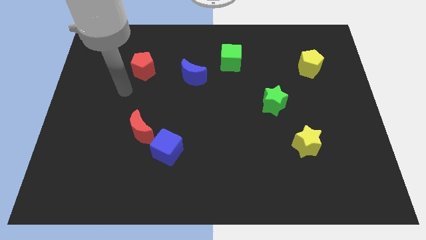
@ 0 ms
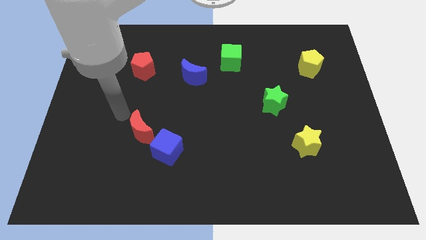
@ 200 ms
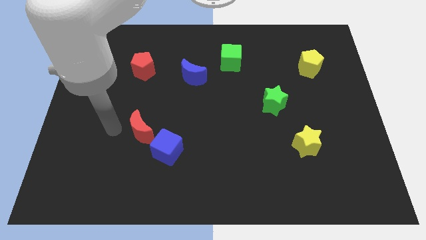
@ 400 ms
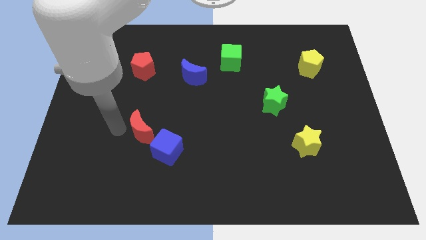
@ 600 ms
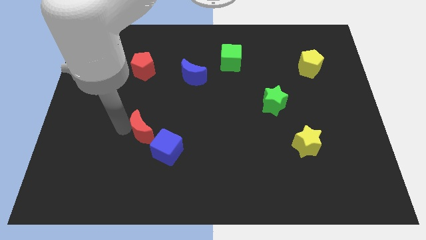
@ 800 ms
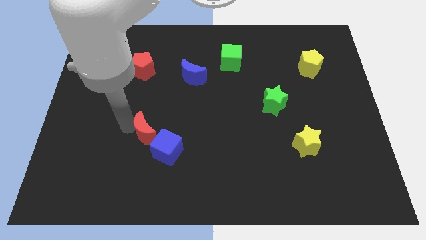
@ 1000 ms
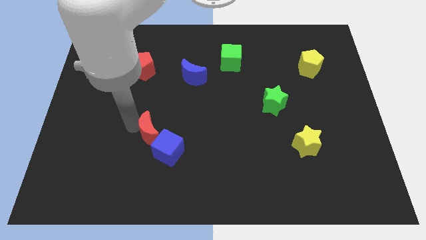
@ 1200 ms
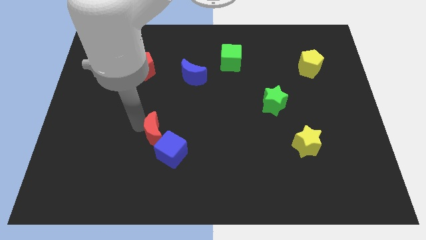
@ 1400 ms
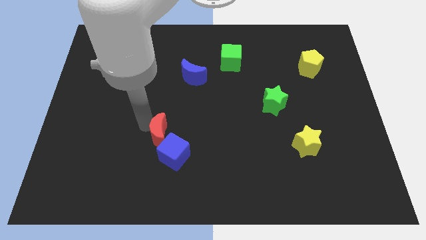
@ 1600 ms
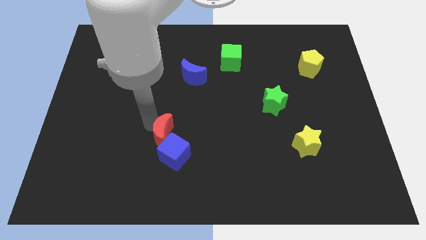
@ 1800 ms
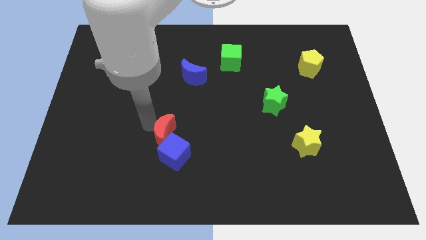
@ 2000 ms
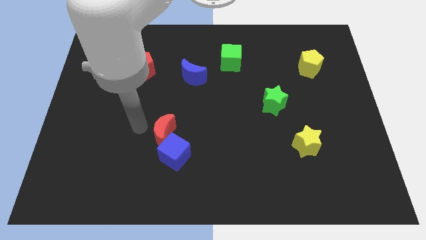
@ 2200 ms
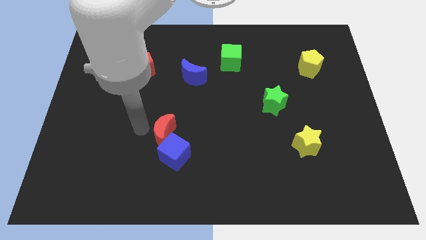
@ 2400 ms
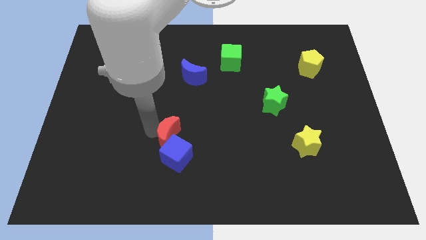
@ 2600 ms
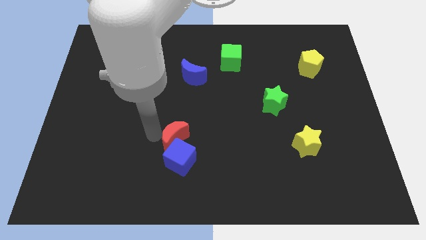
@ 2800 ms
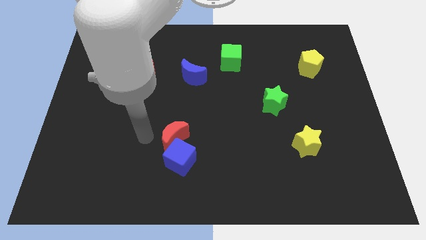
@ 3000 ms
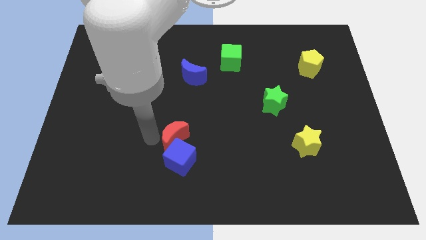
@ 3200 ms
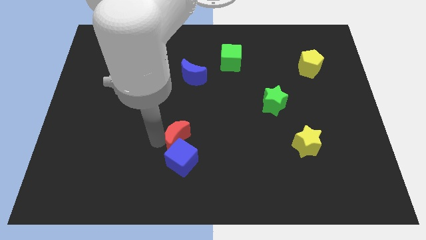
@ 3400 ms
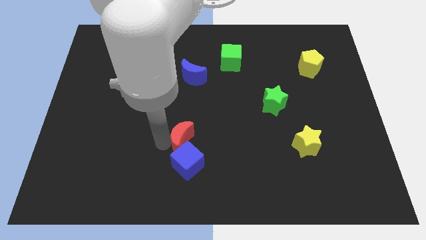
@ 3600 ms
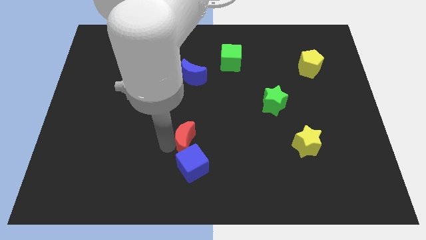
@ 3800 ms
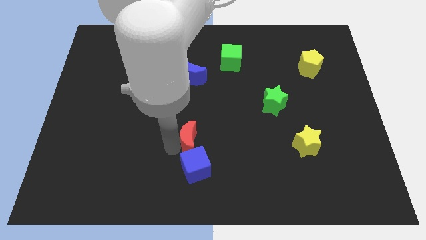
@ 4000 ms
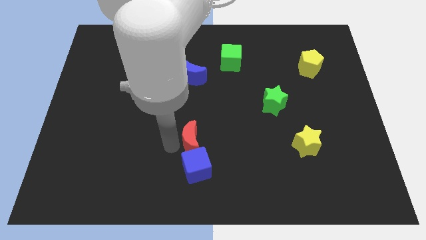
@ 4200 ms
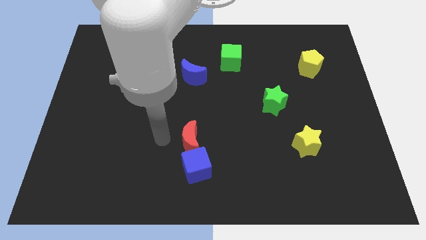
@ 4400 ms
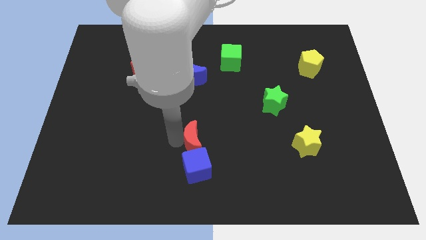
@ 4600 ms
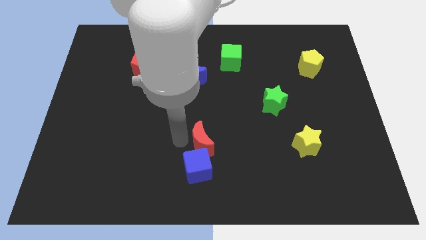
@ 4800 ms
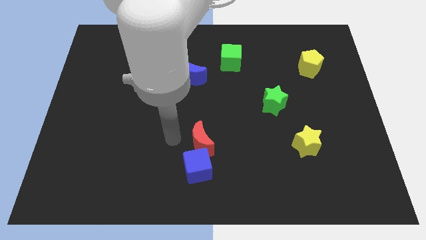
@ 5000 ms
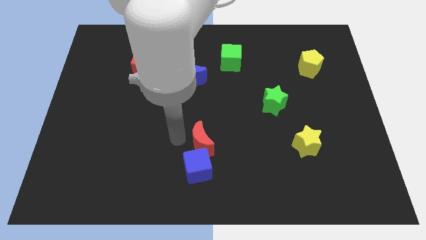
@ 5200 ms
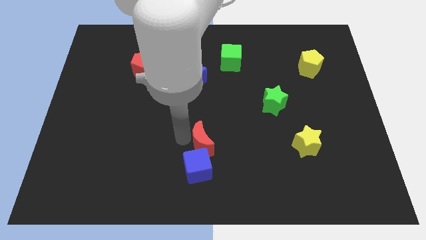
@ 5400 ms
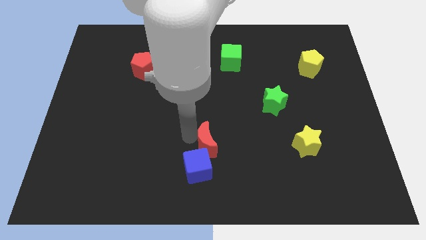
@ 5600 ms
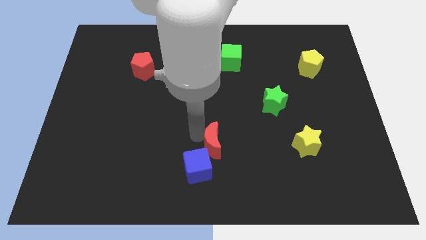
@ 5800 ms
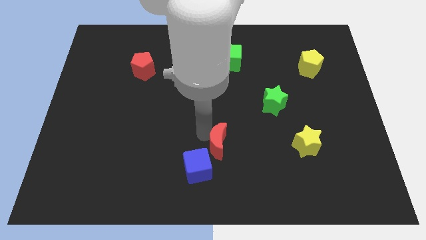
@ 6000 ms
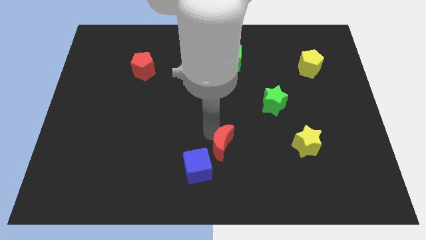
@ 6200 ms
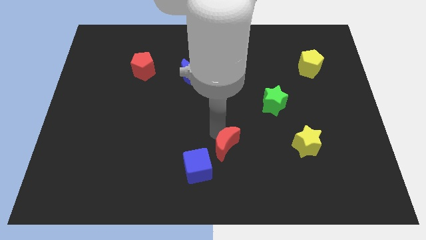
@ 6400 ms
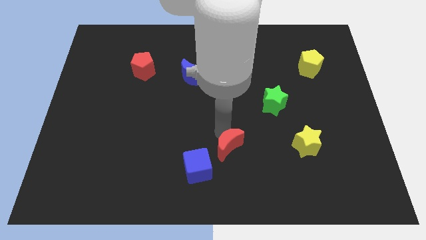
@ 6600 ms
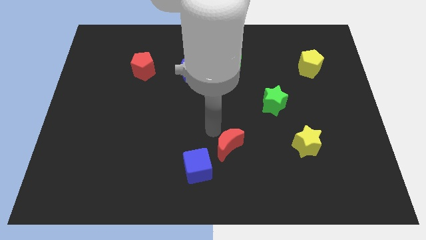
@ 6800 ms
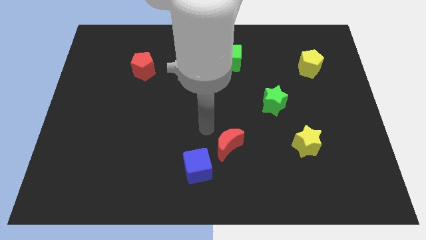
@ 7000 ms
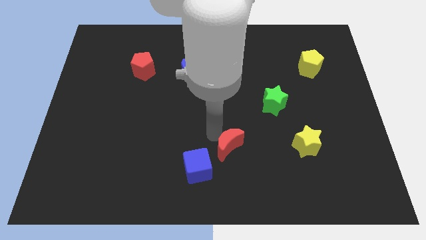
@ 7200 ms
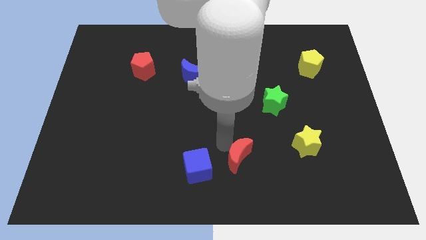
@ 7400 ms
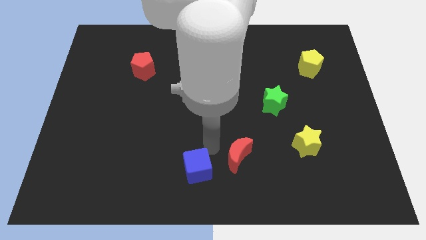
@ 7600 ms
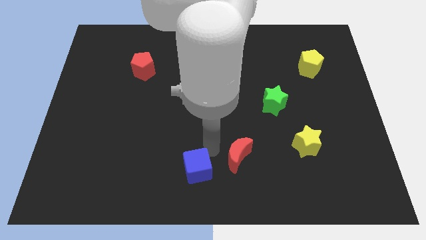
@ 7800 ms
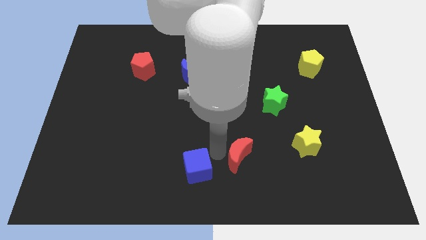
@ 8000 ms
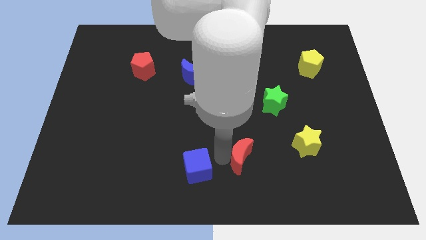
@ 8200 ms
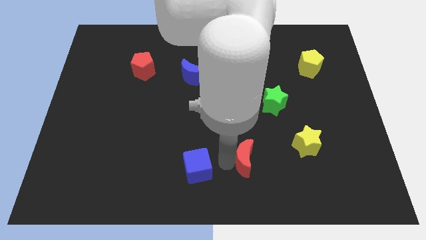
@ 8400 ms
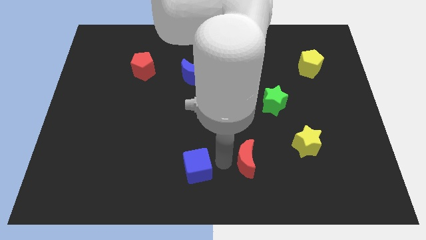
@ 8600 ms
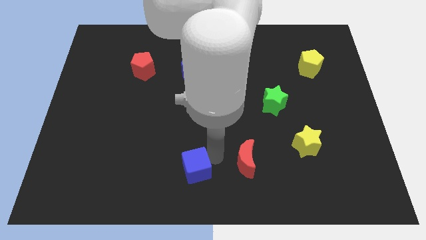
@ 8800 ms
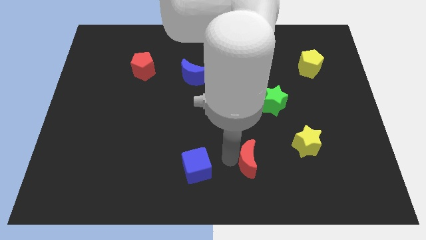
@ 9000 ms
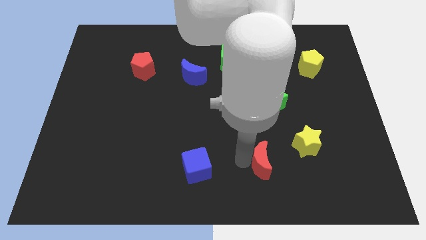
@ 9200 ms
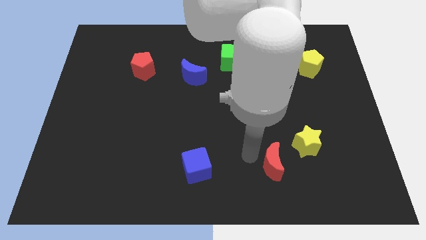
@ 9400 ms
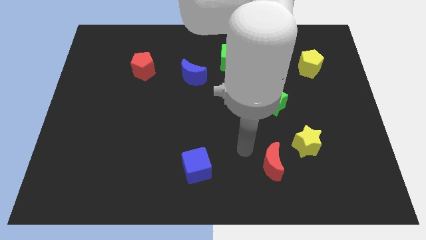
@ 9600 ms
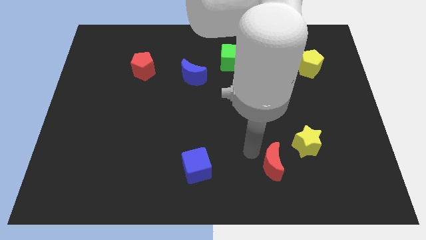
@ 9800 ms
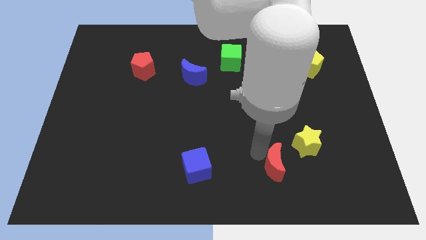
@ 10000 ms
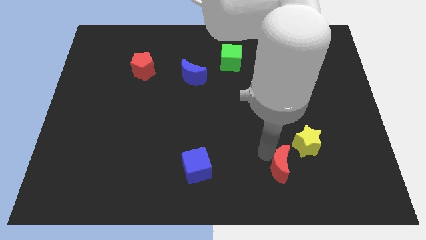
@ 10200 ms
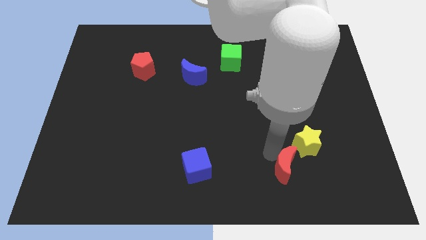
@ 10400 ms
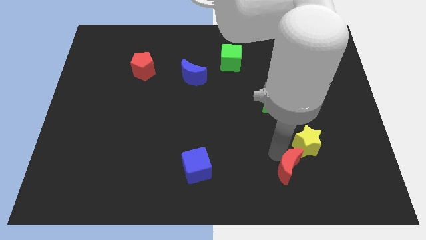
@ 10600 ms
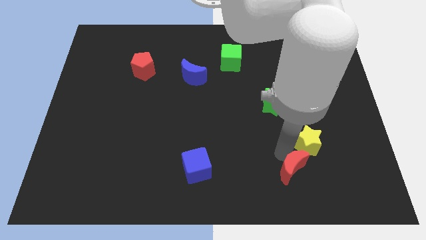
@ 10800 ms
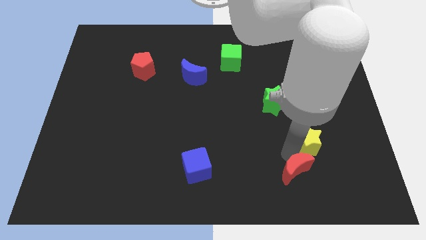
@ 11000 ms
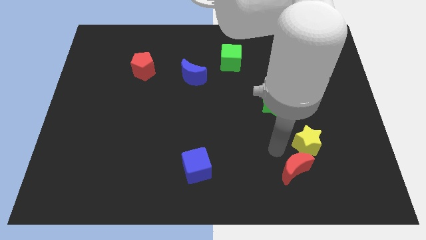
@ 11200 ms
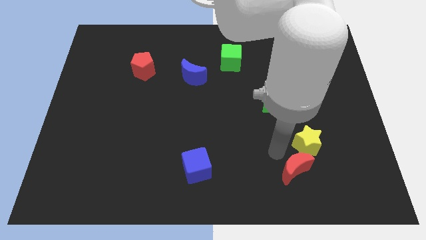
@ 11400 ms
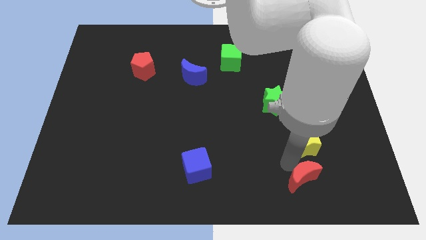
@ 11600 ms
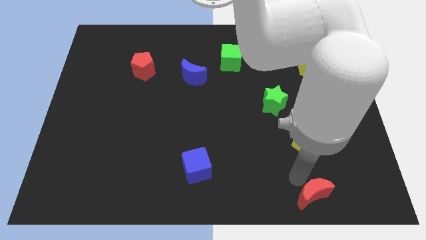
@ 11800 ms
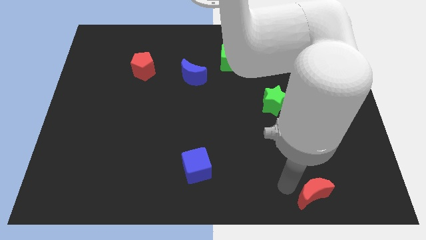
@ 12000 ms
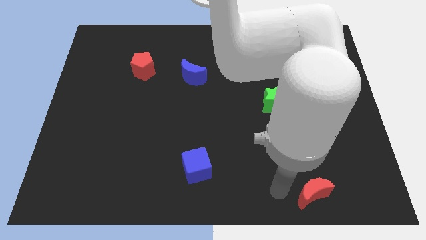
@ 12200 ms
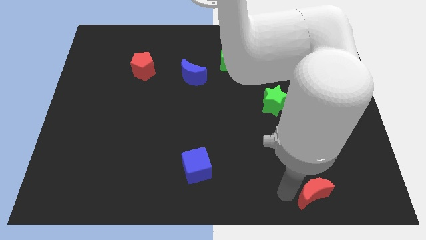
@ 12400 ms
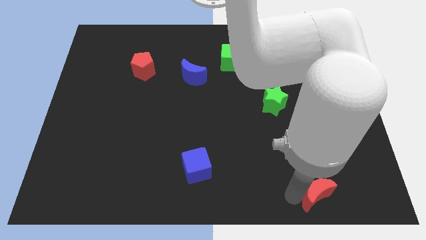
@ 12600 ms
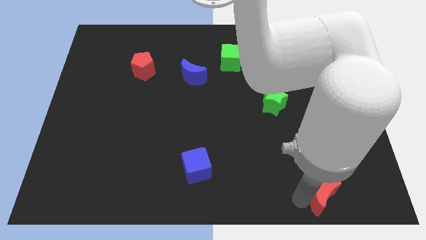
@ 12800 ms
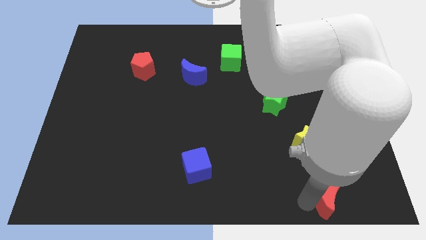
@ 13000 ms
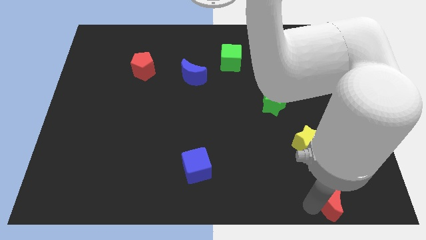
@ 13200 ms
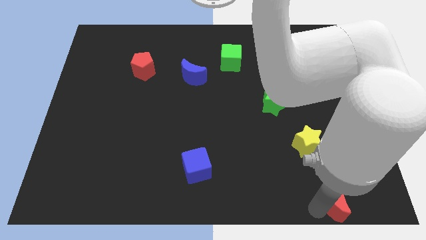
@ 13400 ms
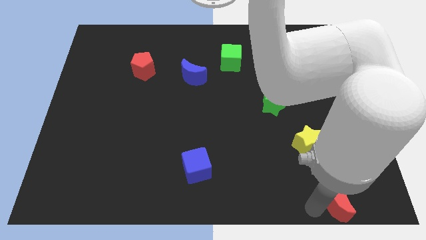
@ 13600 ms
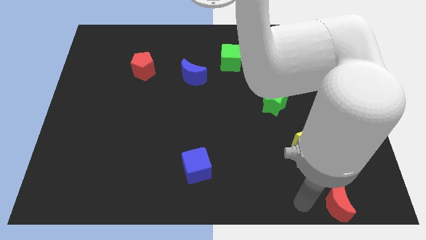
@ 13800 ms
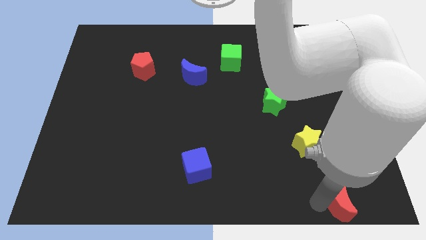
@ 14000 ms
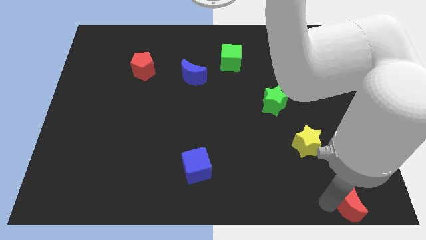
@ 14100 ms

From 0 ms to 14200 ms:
push the red moon to the bottom right of the board
